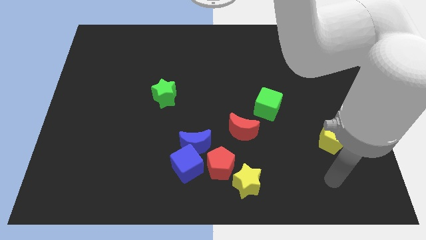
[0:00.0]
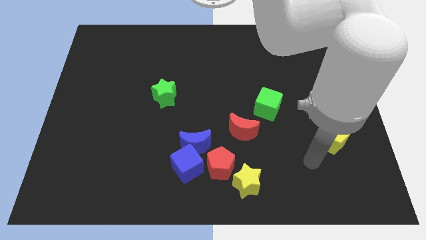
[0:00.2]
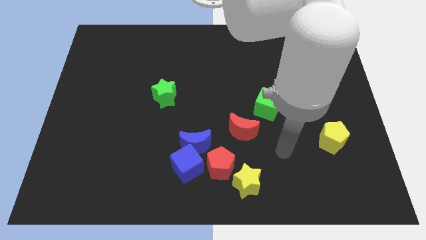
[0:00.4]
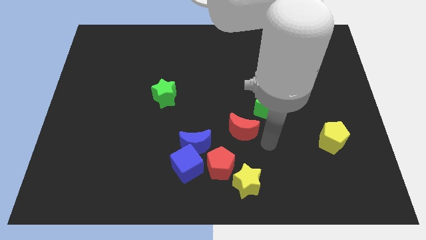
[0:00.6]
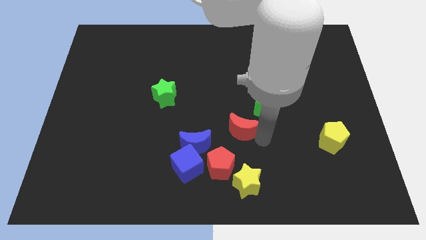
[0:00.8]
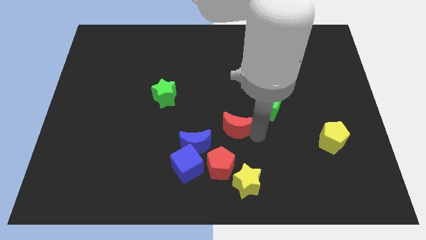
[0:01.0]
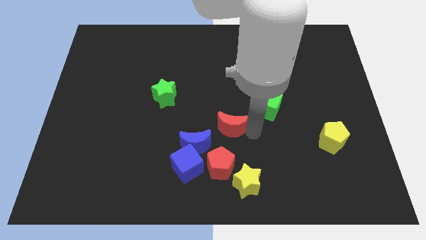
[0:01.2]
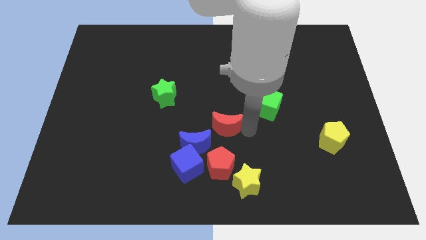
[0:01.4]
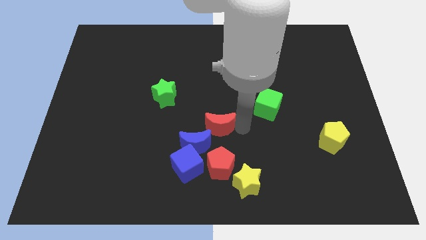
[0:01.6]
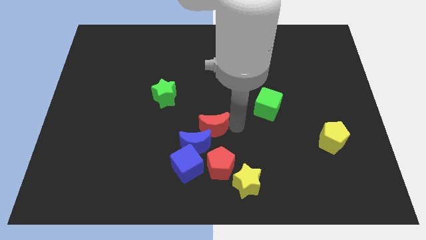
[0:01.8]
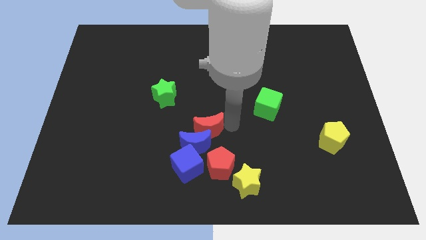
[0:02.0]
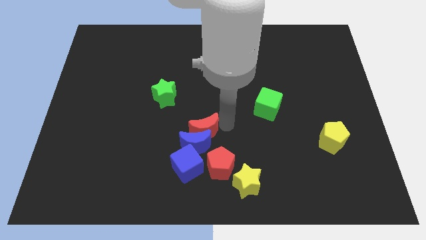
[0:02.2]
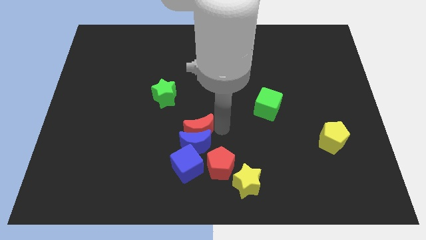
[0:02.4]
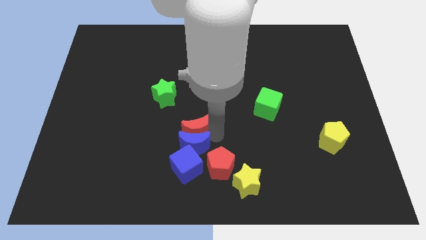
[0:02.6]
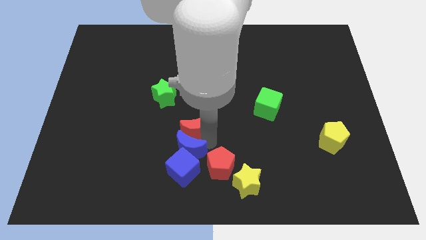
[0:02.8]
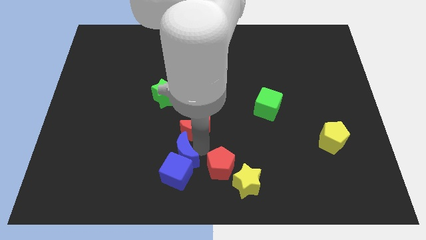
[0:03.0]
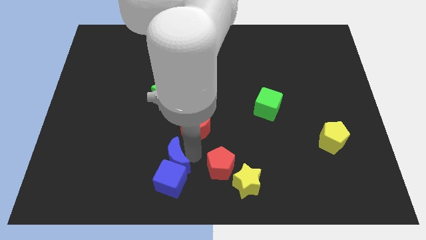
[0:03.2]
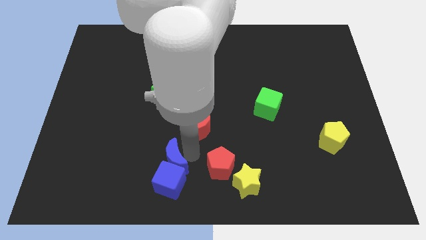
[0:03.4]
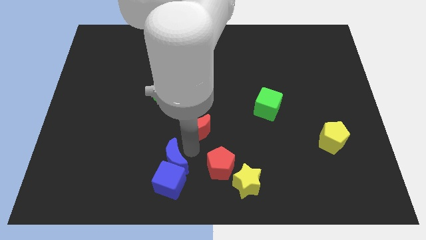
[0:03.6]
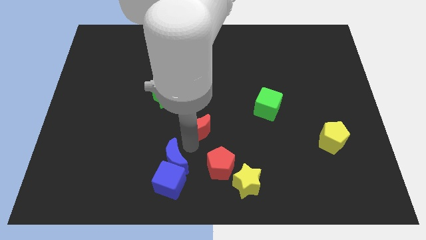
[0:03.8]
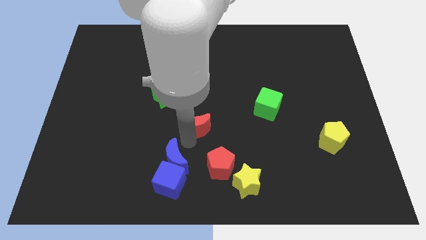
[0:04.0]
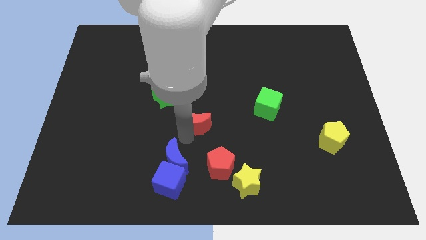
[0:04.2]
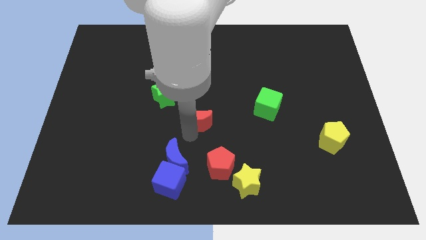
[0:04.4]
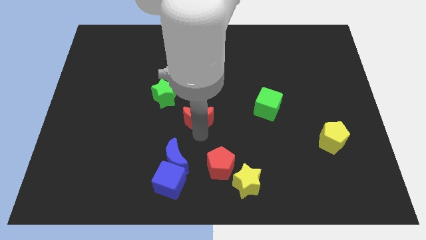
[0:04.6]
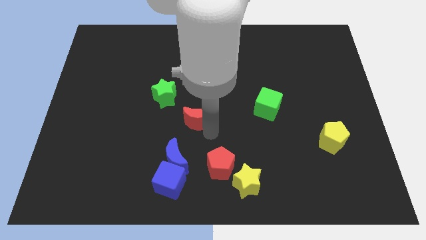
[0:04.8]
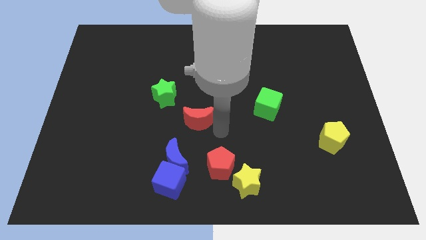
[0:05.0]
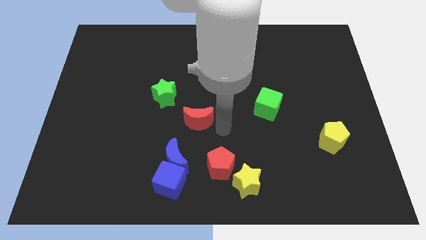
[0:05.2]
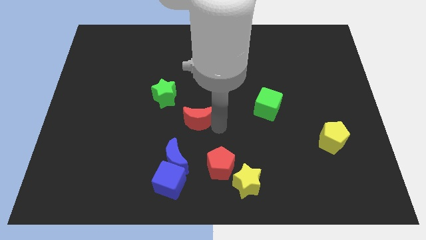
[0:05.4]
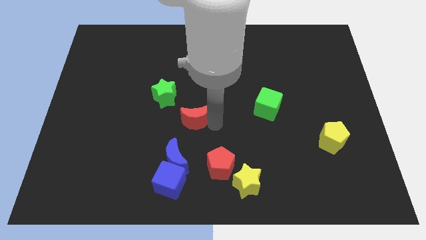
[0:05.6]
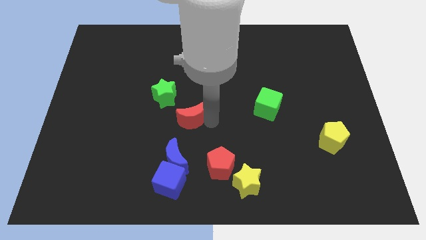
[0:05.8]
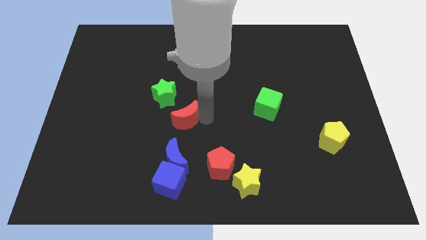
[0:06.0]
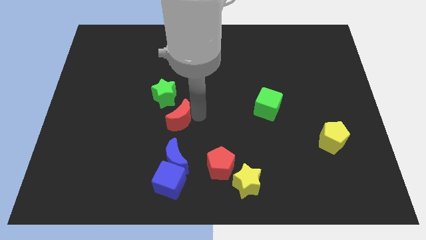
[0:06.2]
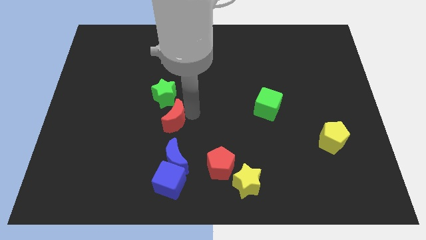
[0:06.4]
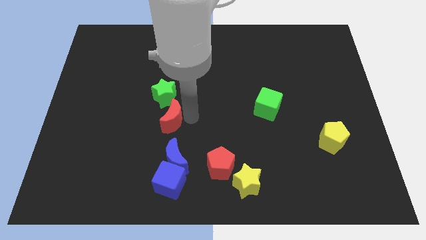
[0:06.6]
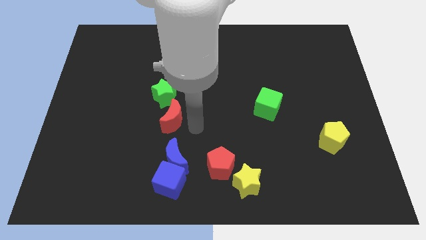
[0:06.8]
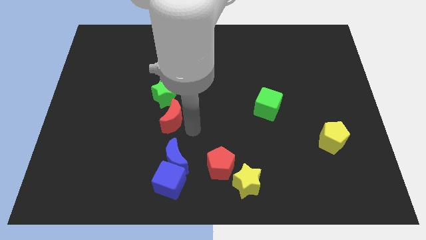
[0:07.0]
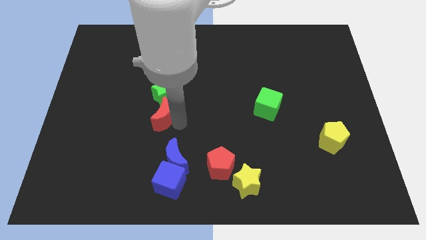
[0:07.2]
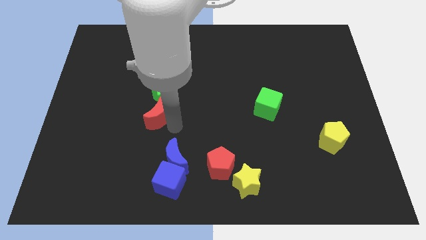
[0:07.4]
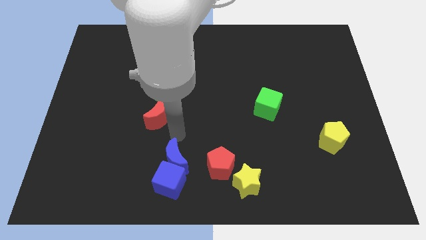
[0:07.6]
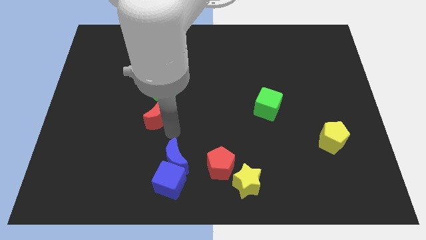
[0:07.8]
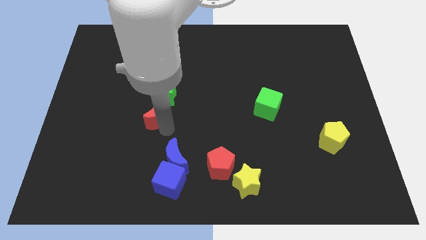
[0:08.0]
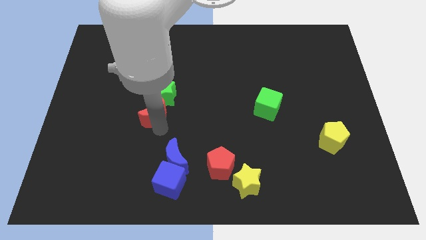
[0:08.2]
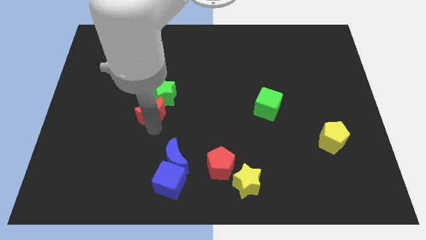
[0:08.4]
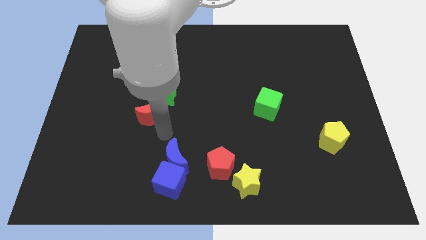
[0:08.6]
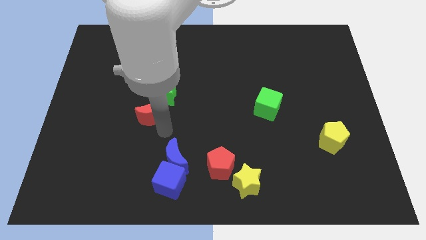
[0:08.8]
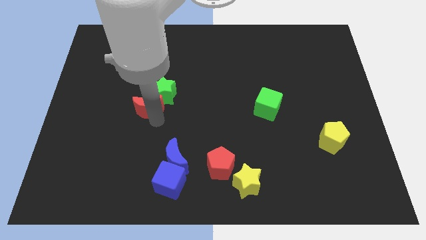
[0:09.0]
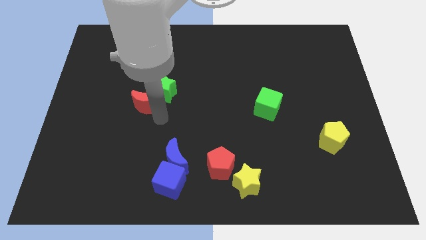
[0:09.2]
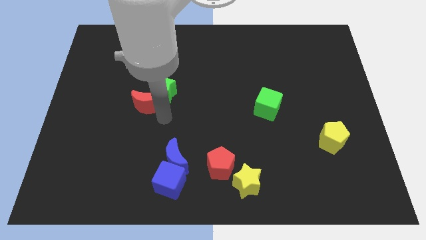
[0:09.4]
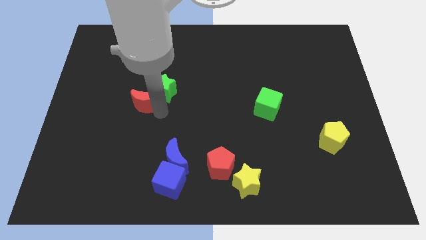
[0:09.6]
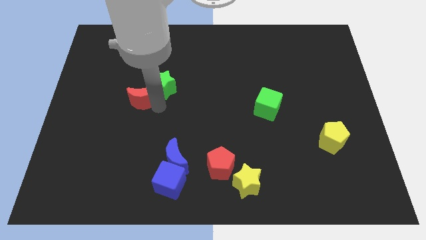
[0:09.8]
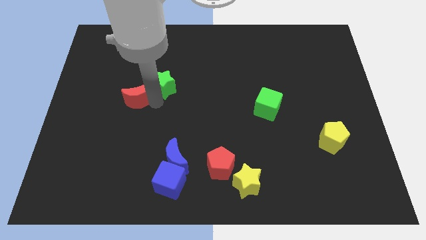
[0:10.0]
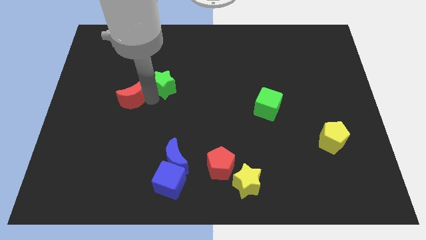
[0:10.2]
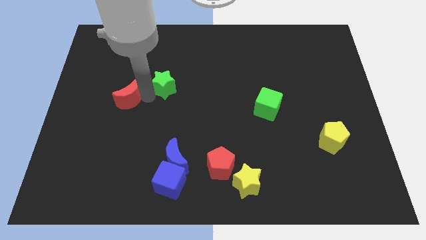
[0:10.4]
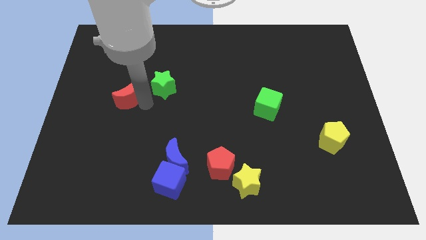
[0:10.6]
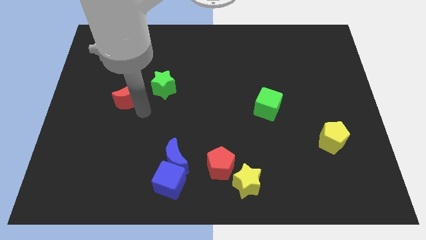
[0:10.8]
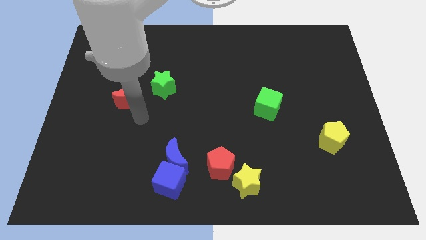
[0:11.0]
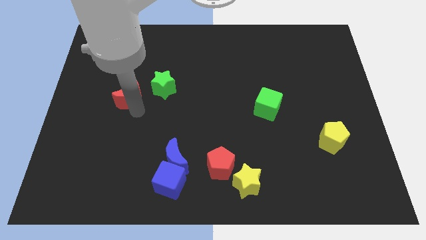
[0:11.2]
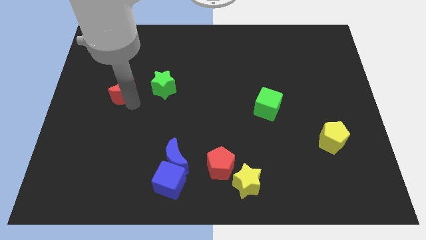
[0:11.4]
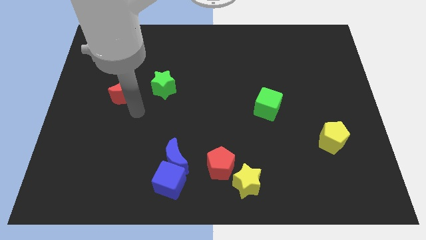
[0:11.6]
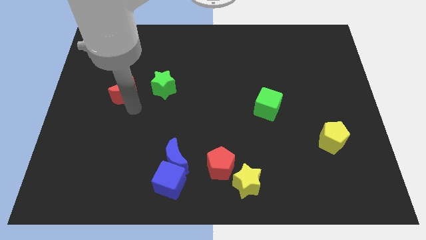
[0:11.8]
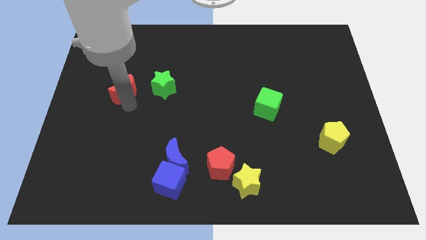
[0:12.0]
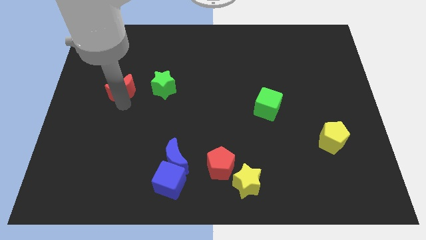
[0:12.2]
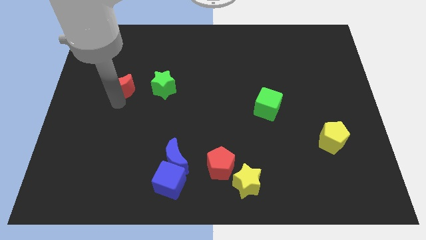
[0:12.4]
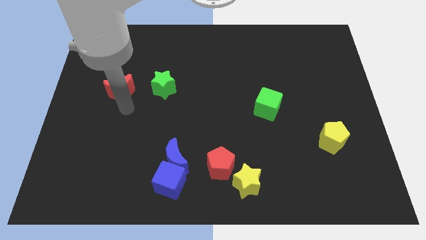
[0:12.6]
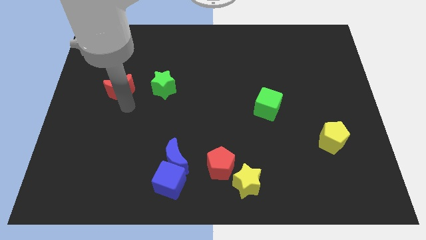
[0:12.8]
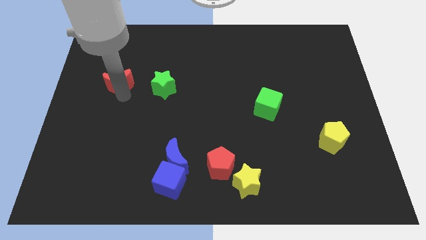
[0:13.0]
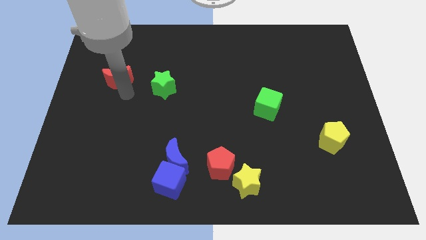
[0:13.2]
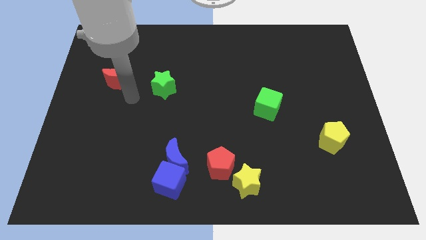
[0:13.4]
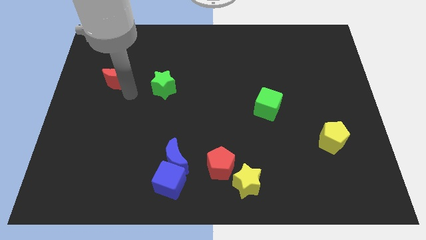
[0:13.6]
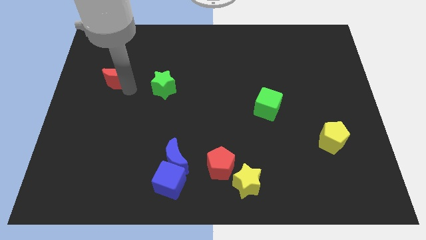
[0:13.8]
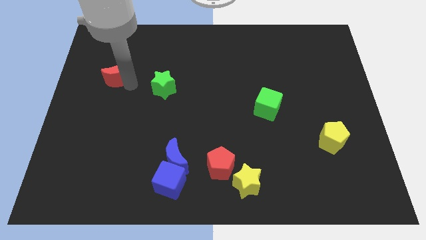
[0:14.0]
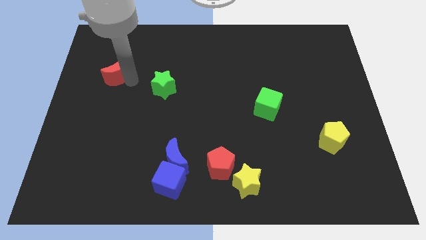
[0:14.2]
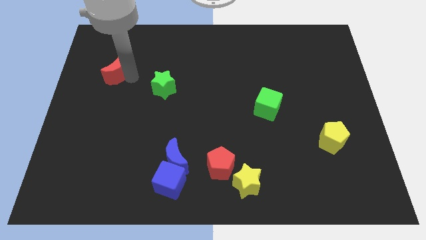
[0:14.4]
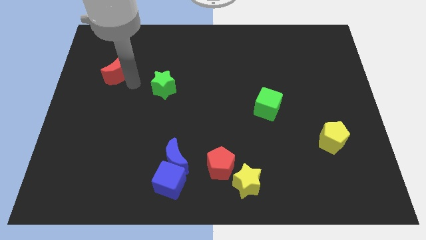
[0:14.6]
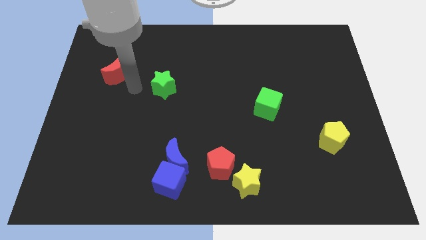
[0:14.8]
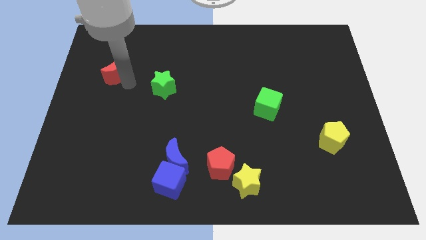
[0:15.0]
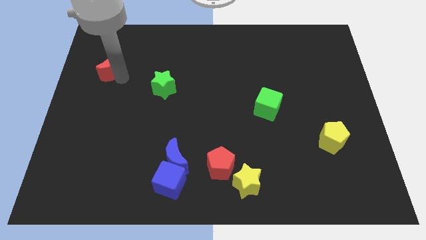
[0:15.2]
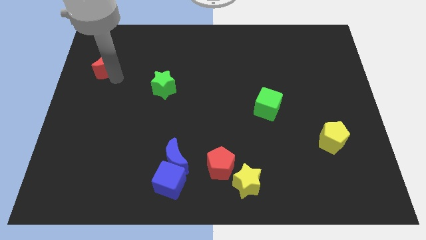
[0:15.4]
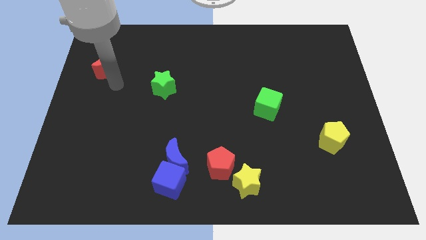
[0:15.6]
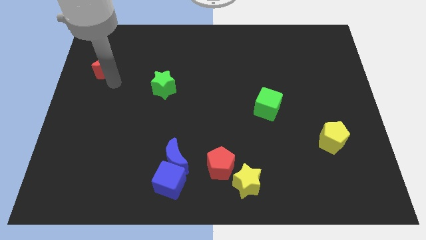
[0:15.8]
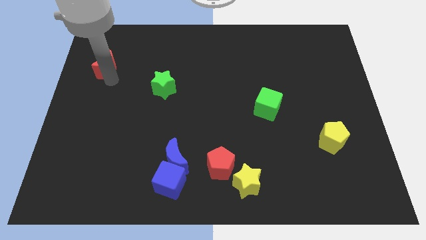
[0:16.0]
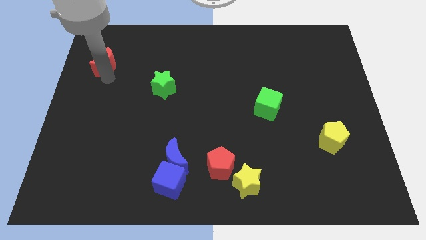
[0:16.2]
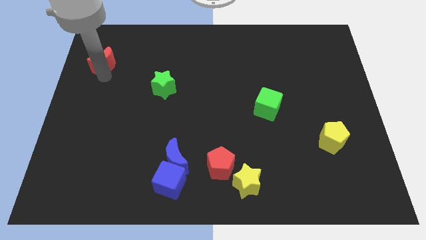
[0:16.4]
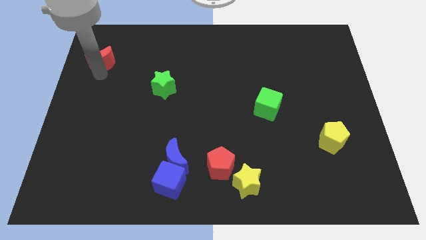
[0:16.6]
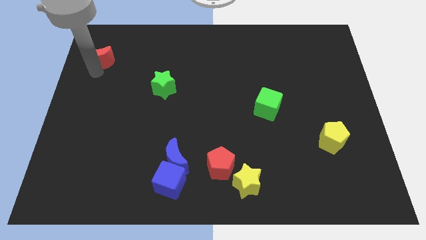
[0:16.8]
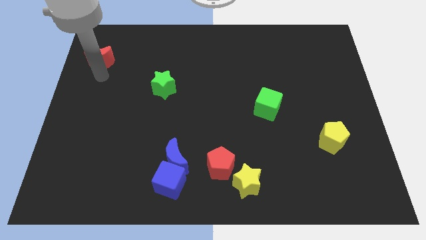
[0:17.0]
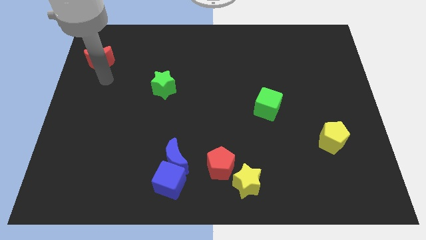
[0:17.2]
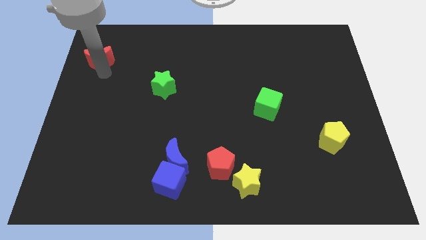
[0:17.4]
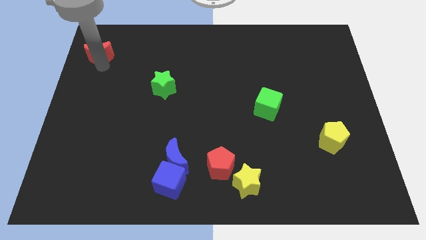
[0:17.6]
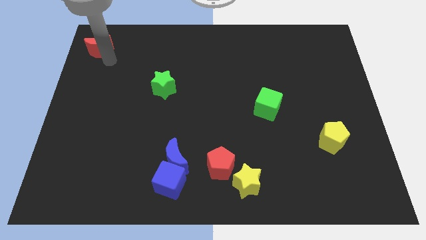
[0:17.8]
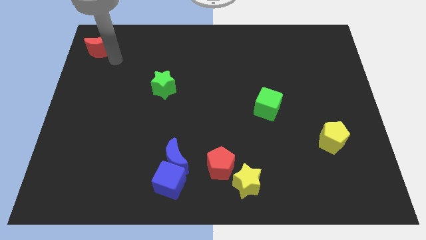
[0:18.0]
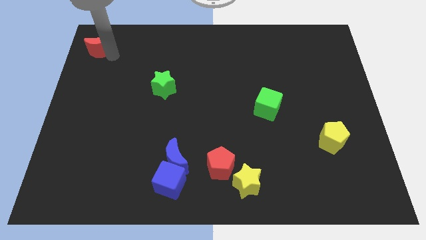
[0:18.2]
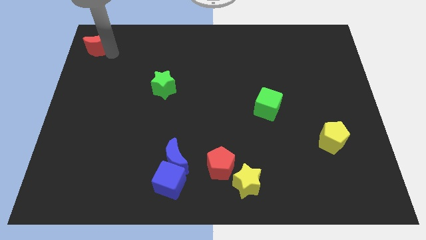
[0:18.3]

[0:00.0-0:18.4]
slide the red moon to the top left of the board
